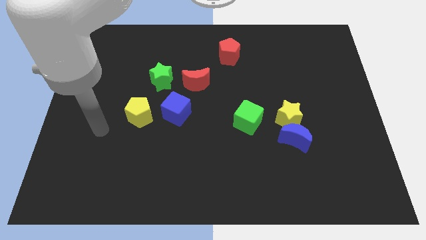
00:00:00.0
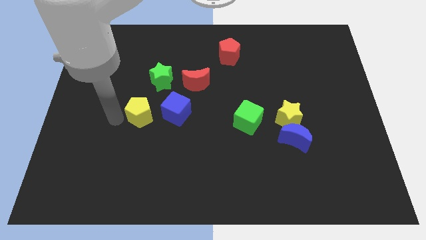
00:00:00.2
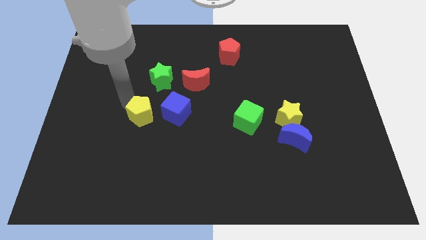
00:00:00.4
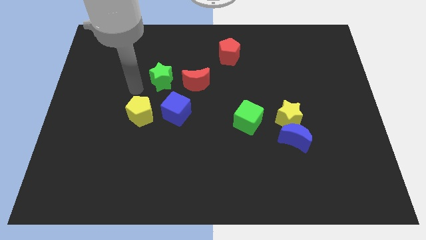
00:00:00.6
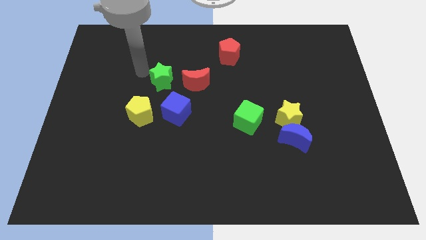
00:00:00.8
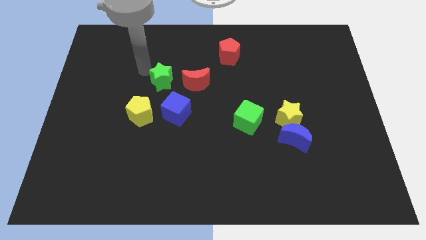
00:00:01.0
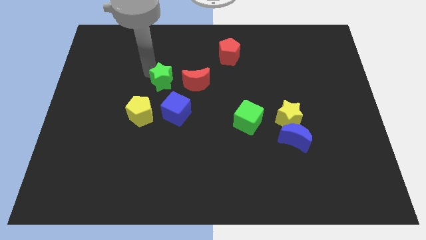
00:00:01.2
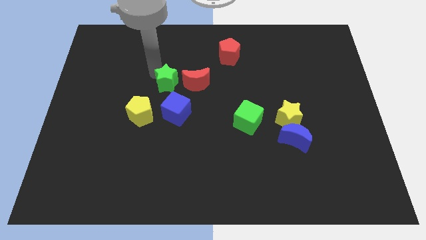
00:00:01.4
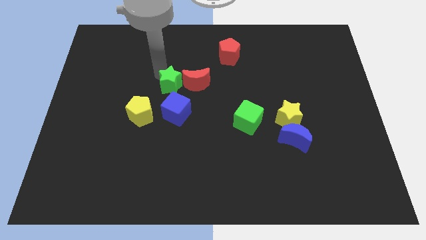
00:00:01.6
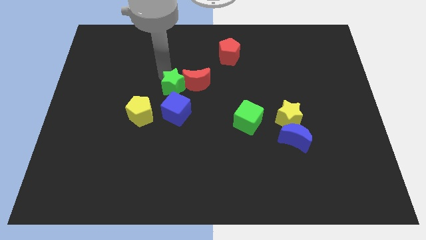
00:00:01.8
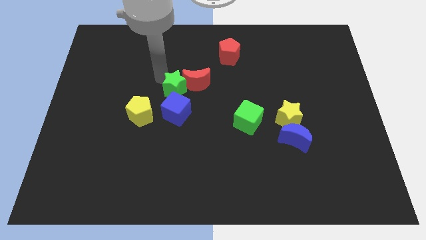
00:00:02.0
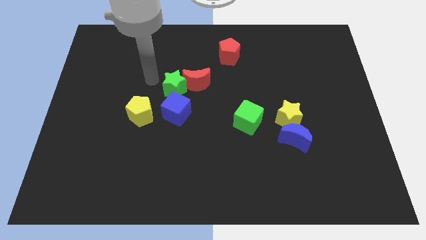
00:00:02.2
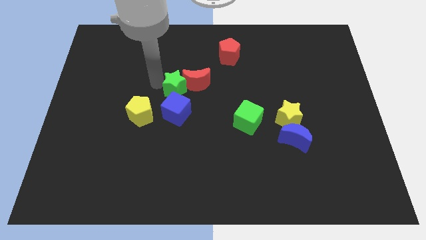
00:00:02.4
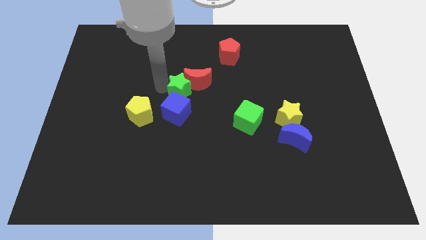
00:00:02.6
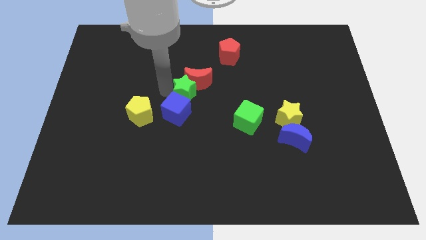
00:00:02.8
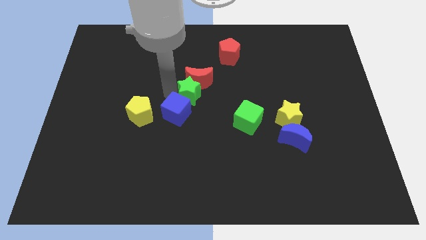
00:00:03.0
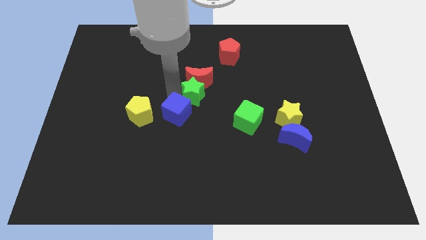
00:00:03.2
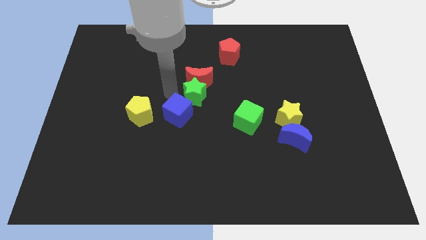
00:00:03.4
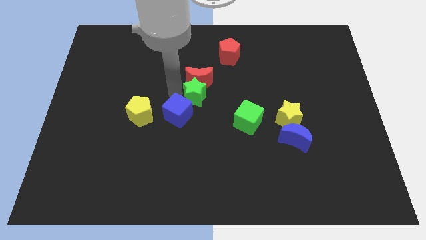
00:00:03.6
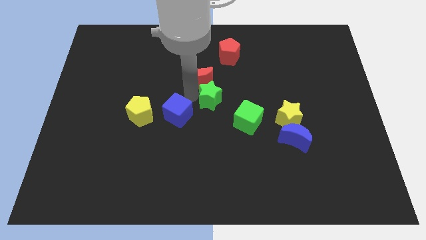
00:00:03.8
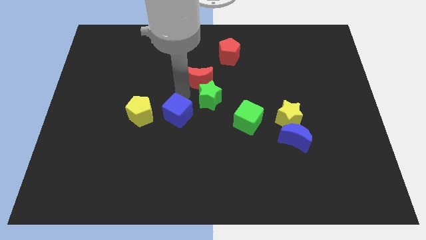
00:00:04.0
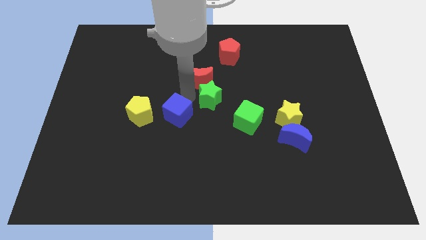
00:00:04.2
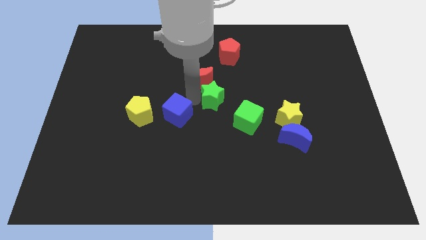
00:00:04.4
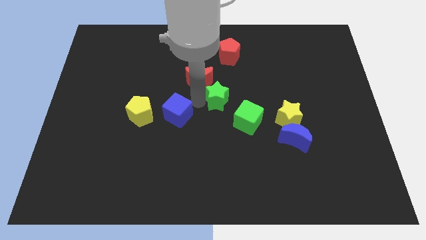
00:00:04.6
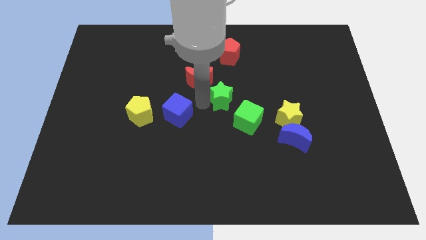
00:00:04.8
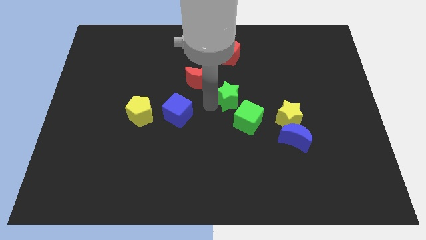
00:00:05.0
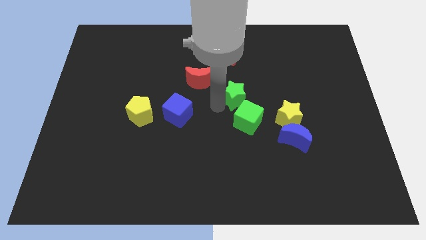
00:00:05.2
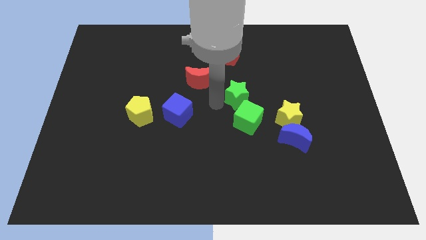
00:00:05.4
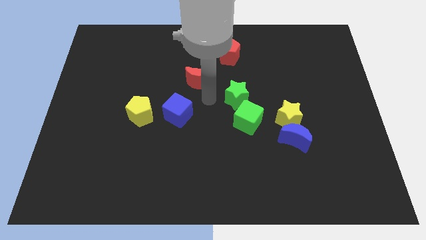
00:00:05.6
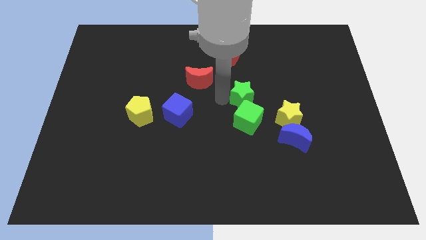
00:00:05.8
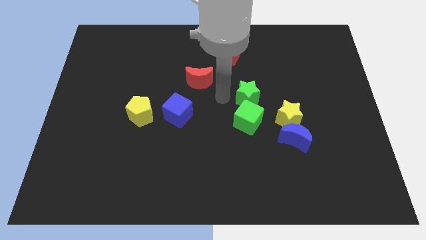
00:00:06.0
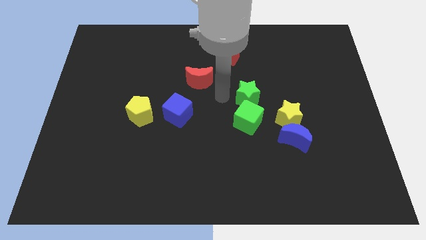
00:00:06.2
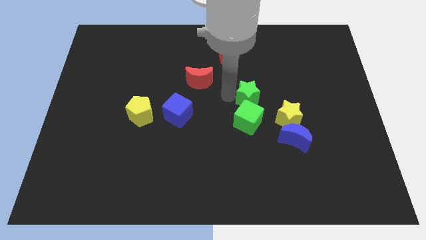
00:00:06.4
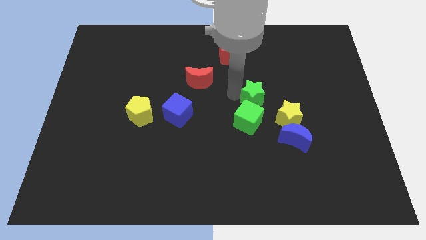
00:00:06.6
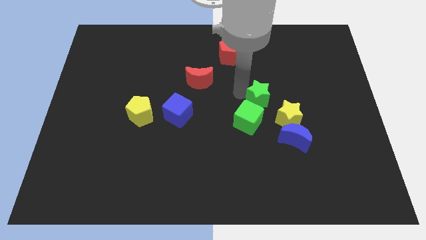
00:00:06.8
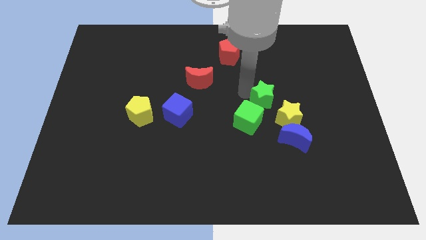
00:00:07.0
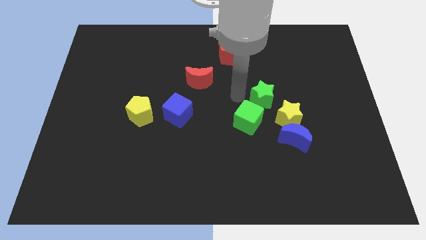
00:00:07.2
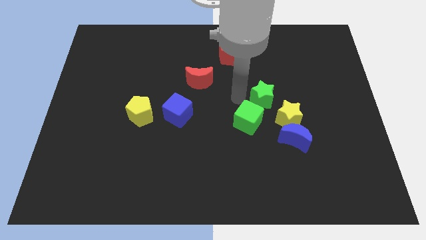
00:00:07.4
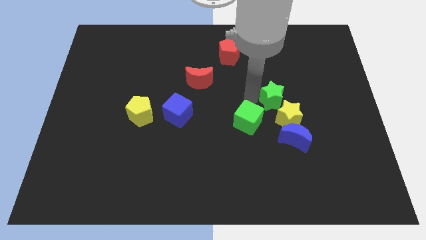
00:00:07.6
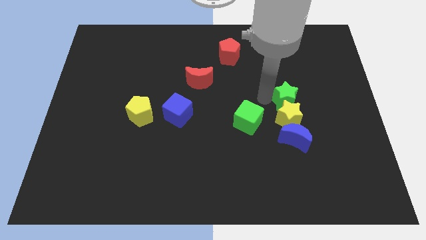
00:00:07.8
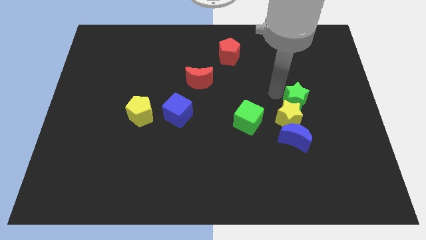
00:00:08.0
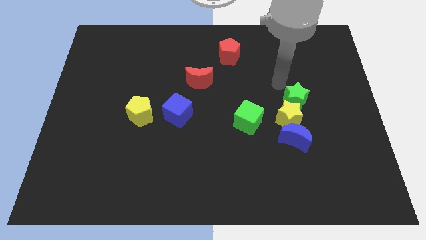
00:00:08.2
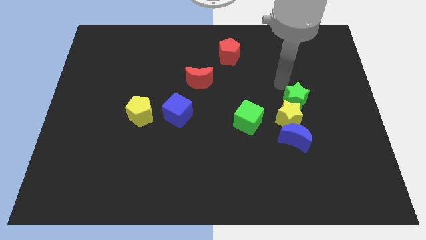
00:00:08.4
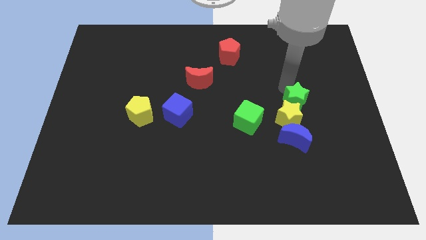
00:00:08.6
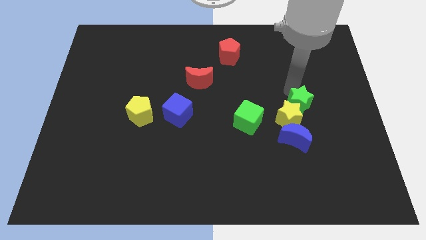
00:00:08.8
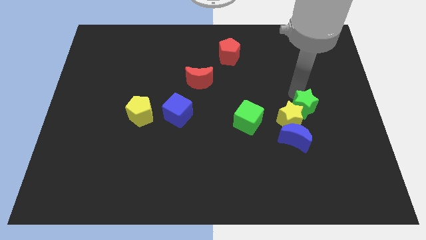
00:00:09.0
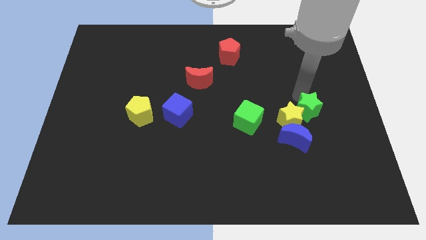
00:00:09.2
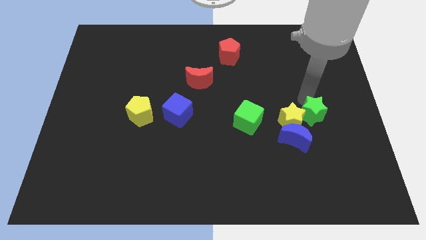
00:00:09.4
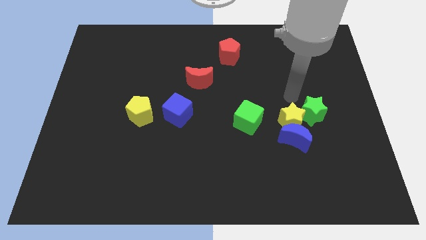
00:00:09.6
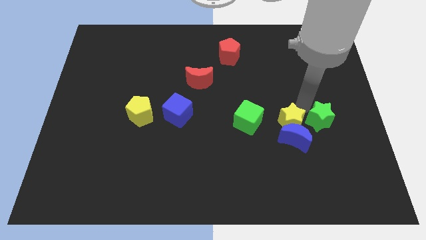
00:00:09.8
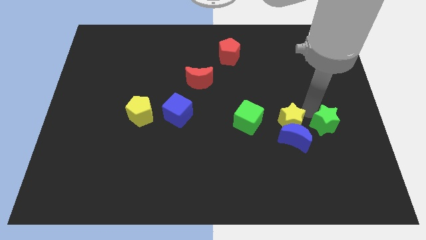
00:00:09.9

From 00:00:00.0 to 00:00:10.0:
push the green star to the right side of the blue moon
